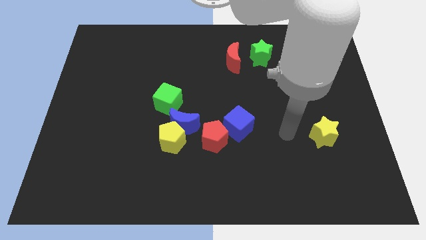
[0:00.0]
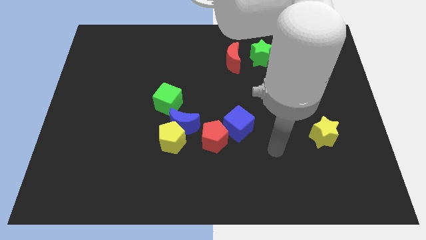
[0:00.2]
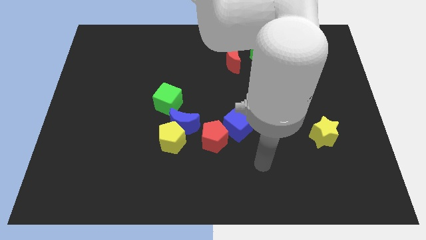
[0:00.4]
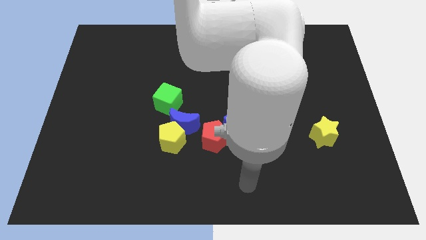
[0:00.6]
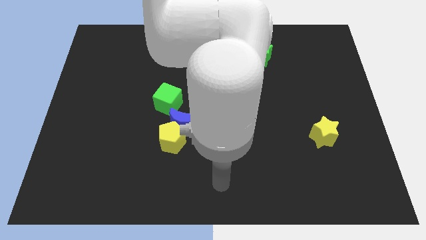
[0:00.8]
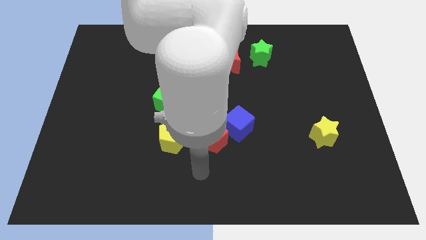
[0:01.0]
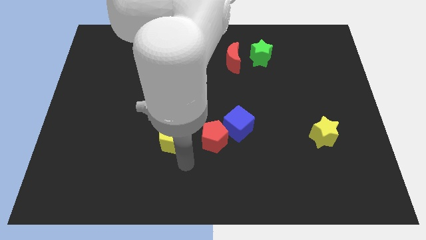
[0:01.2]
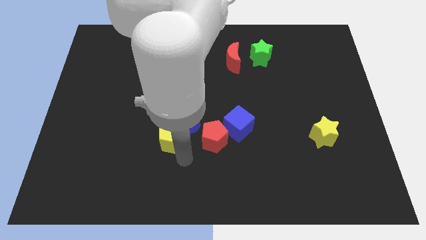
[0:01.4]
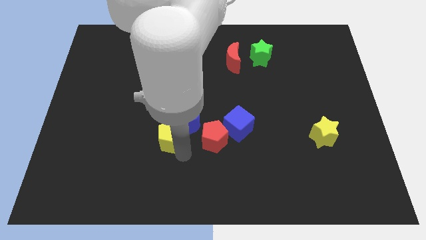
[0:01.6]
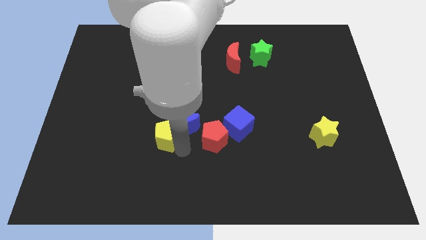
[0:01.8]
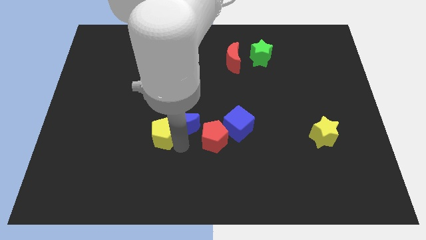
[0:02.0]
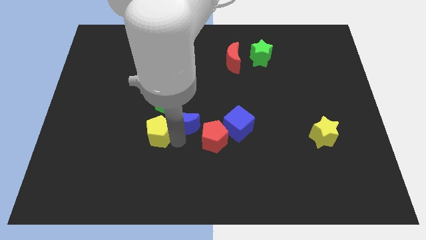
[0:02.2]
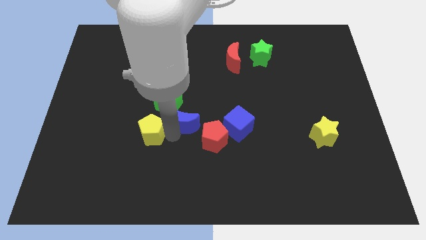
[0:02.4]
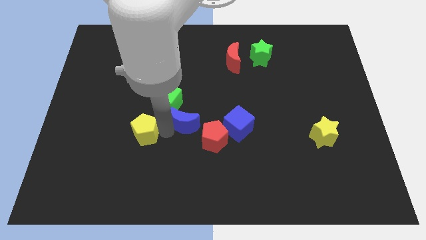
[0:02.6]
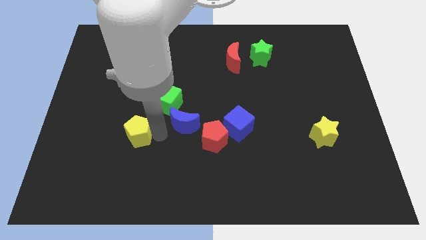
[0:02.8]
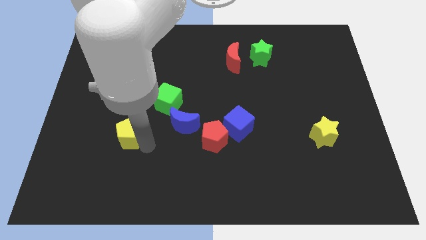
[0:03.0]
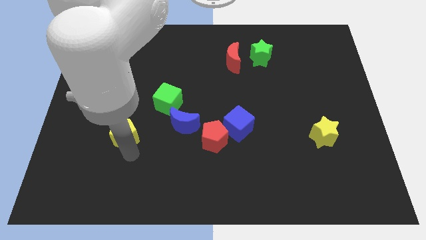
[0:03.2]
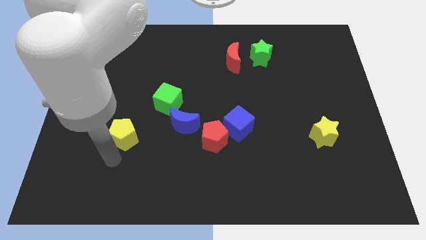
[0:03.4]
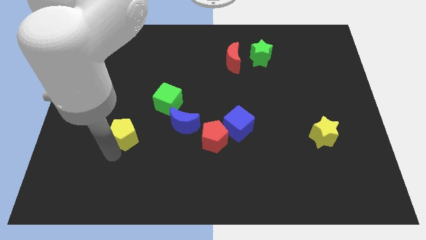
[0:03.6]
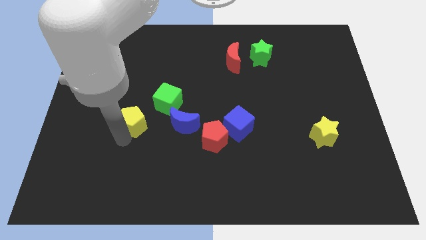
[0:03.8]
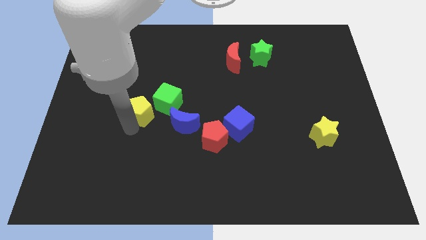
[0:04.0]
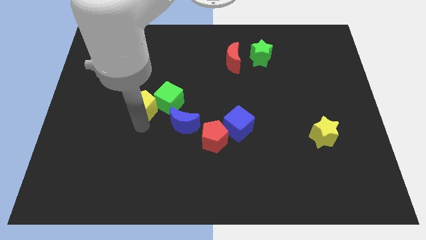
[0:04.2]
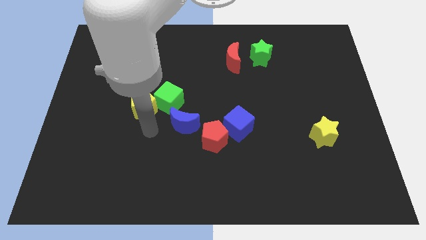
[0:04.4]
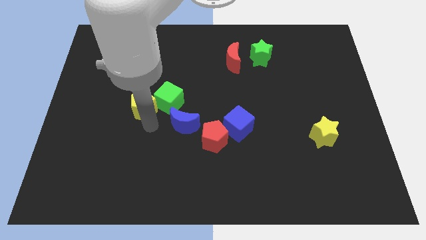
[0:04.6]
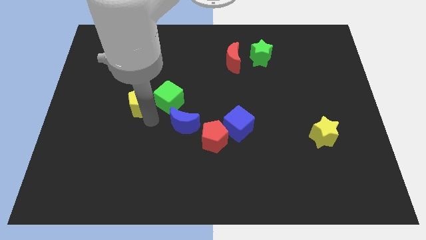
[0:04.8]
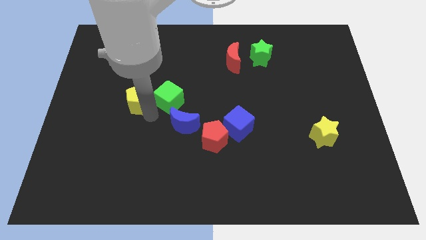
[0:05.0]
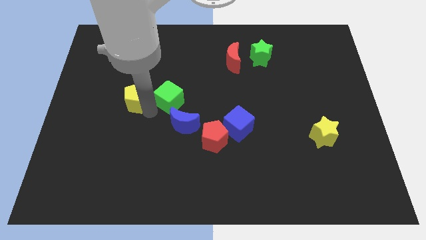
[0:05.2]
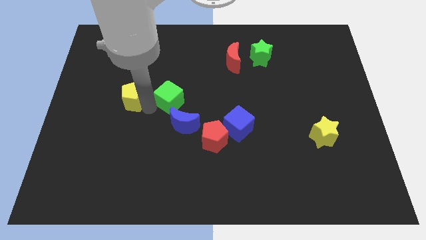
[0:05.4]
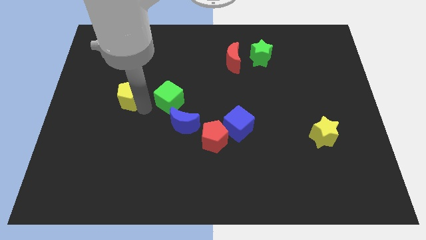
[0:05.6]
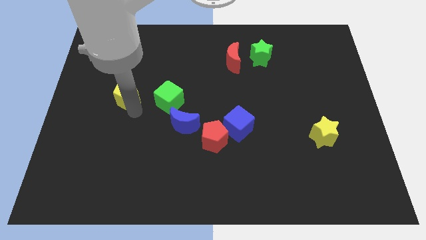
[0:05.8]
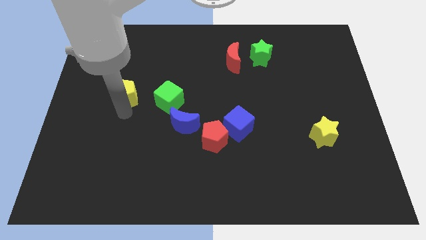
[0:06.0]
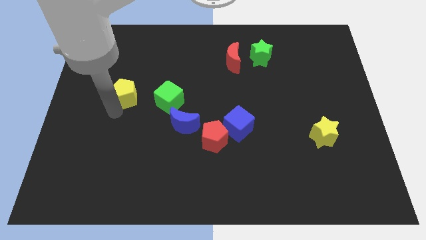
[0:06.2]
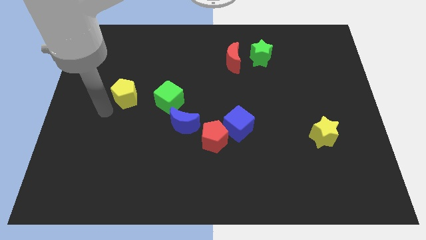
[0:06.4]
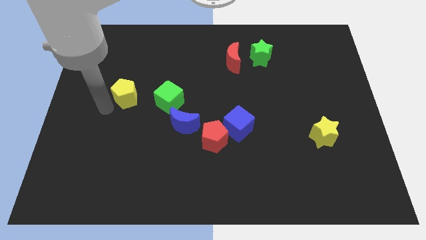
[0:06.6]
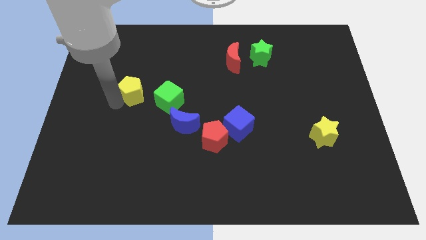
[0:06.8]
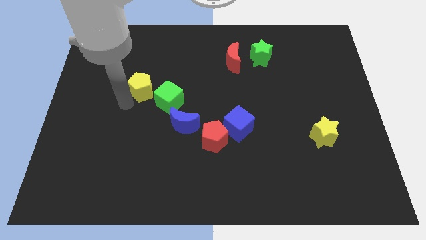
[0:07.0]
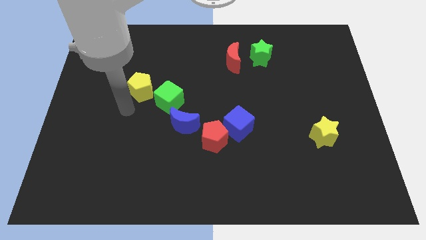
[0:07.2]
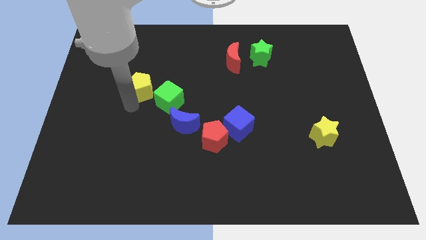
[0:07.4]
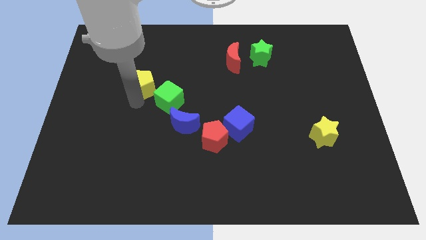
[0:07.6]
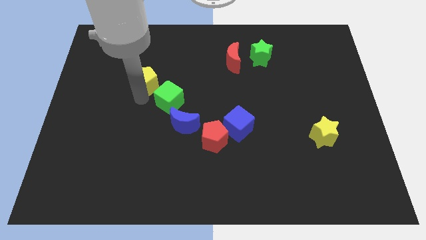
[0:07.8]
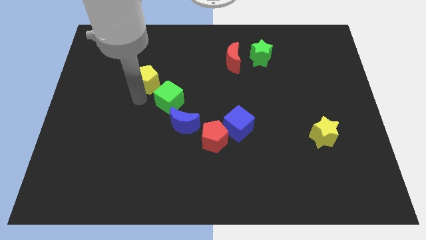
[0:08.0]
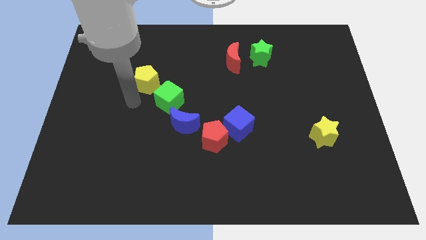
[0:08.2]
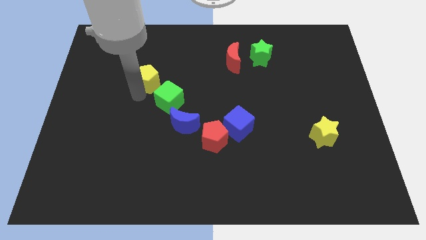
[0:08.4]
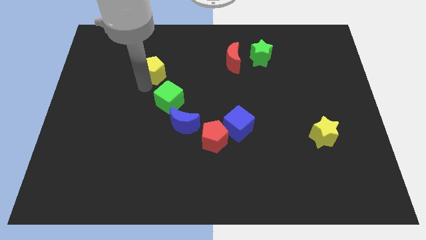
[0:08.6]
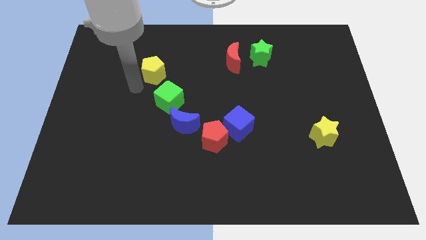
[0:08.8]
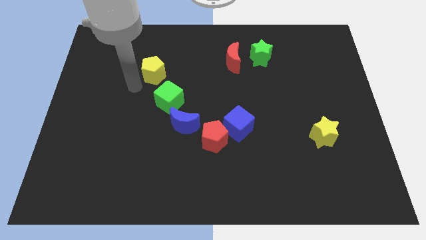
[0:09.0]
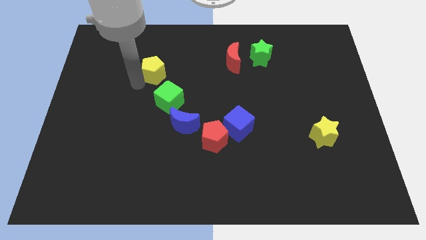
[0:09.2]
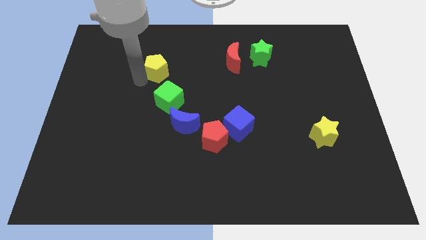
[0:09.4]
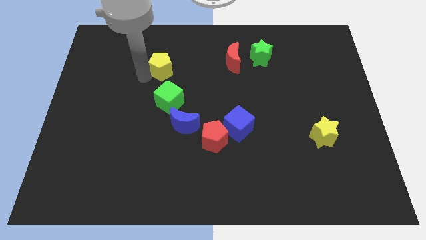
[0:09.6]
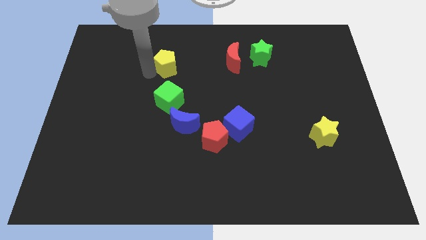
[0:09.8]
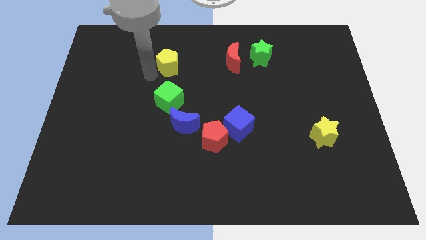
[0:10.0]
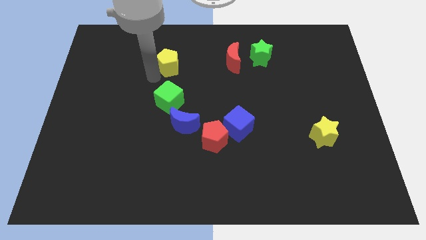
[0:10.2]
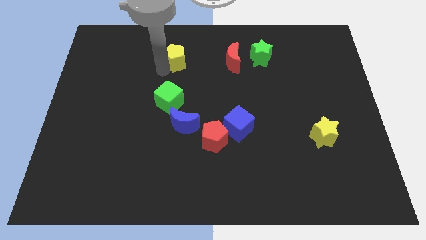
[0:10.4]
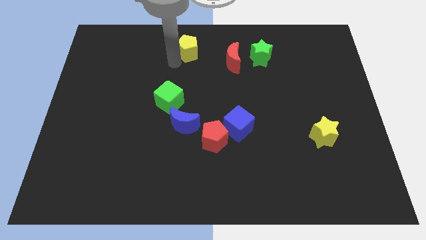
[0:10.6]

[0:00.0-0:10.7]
slide the yellow pentagon to the top side

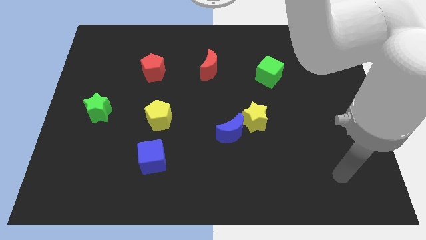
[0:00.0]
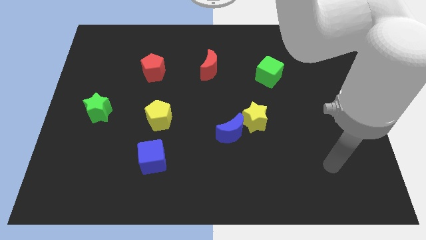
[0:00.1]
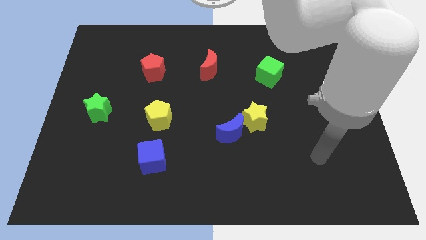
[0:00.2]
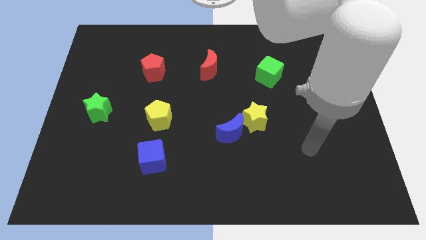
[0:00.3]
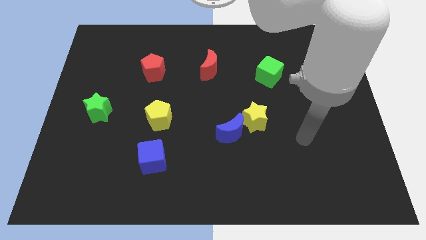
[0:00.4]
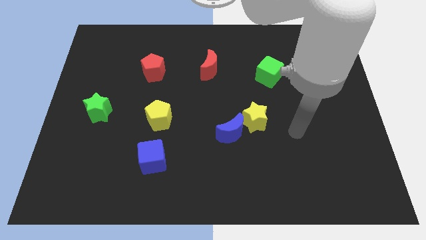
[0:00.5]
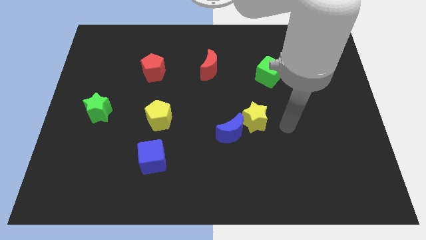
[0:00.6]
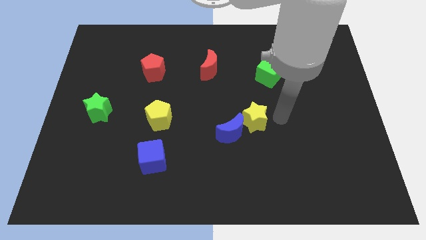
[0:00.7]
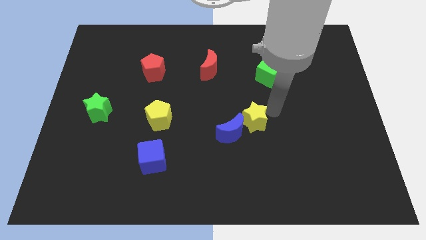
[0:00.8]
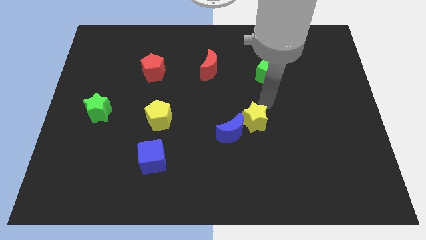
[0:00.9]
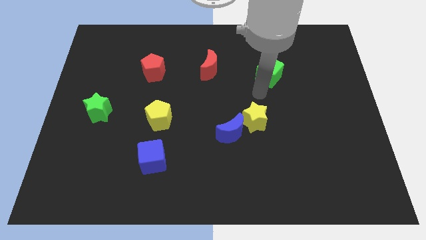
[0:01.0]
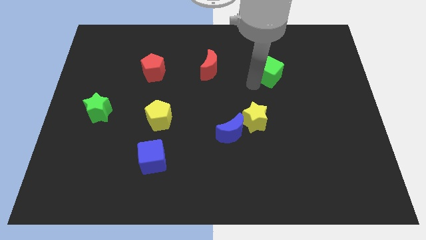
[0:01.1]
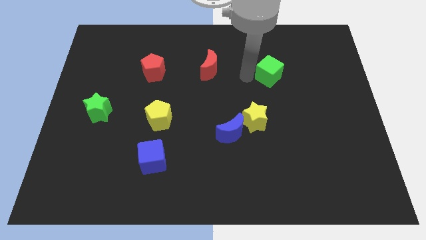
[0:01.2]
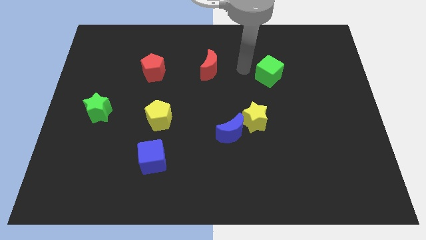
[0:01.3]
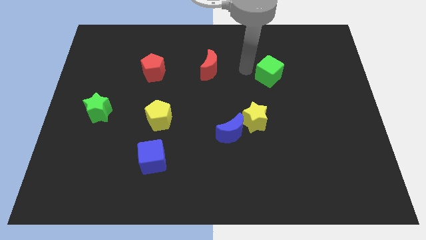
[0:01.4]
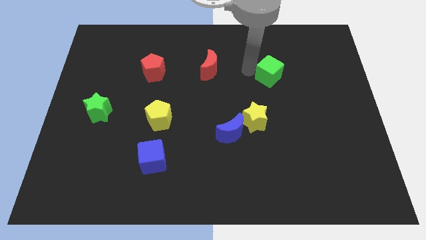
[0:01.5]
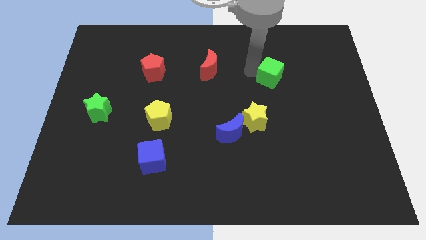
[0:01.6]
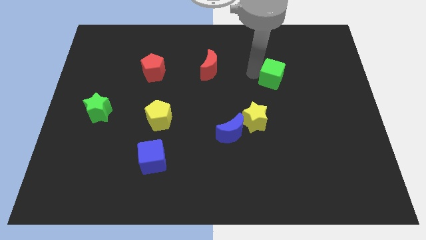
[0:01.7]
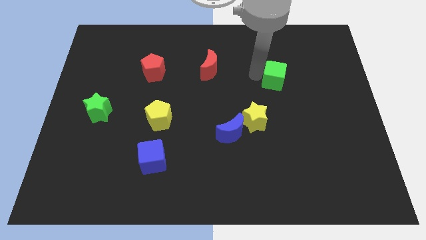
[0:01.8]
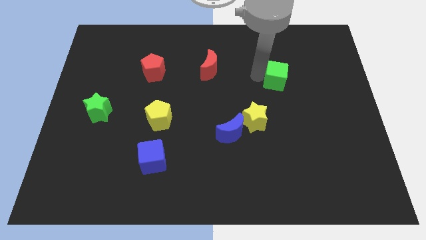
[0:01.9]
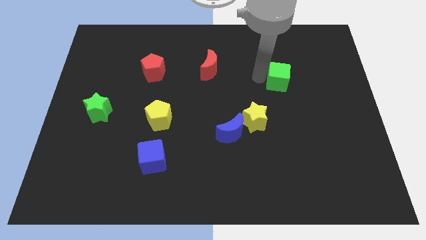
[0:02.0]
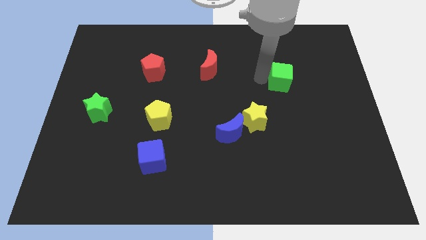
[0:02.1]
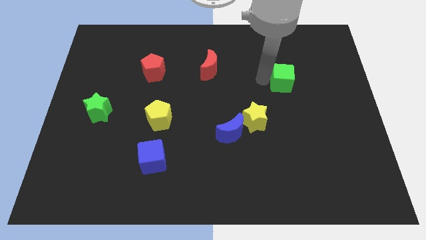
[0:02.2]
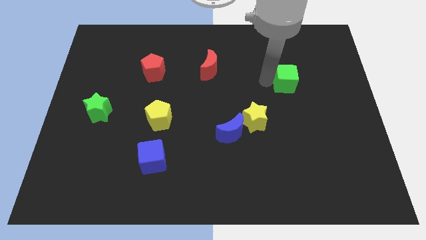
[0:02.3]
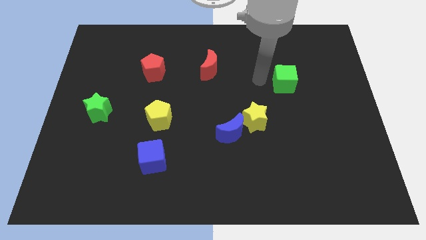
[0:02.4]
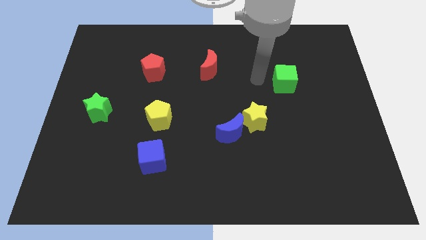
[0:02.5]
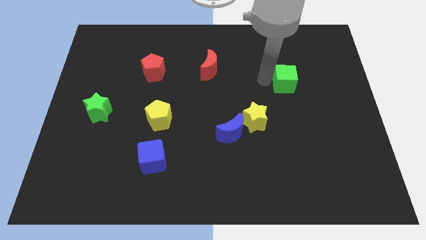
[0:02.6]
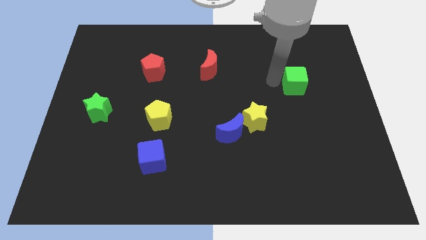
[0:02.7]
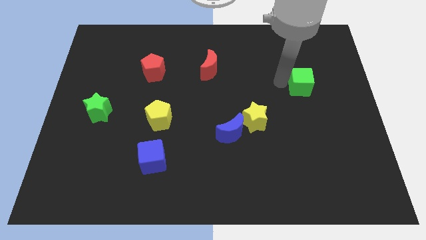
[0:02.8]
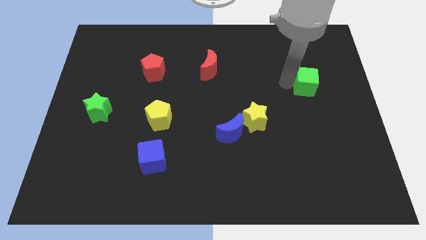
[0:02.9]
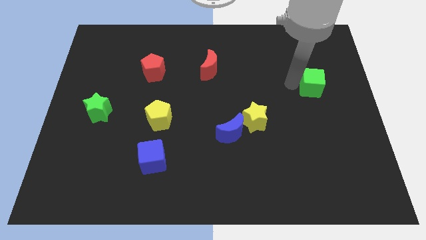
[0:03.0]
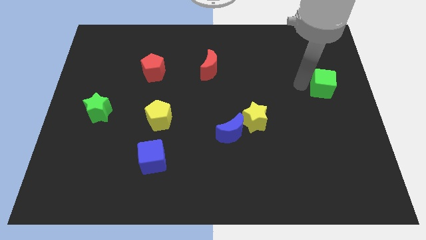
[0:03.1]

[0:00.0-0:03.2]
push the green cube to the center right
